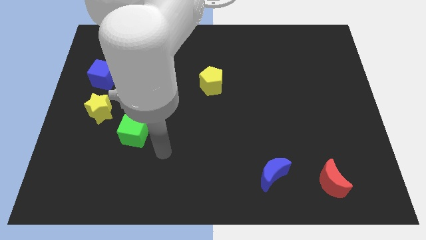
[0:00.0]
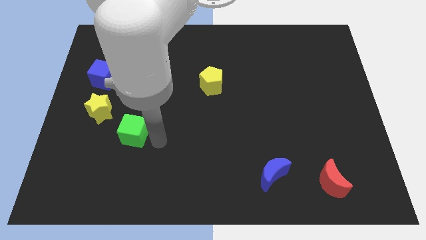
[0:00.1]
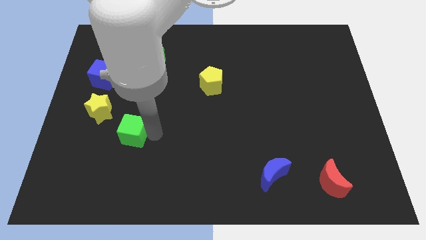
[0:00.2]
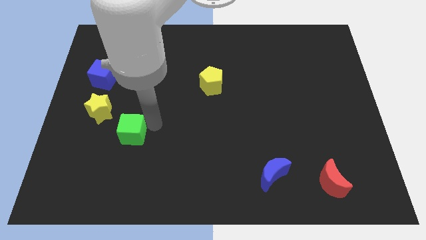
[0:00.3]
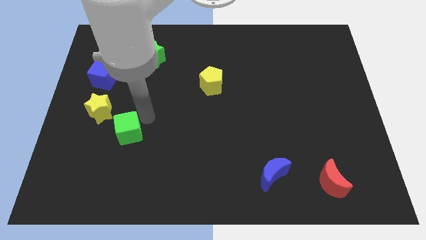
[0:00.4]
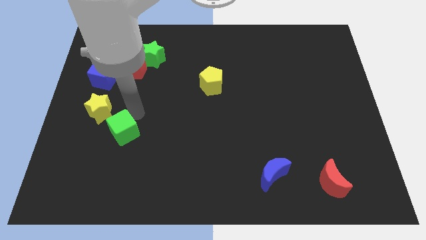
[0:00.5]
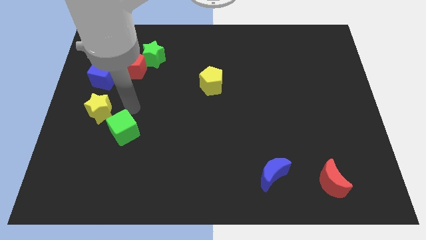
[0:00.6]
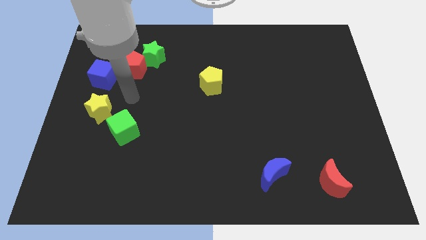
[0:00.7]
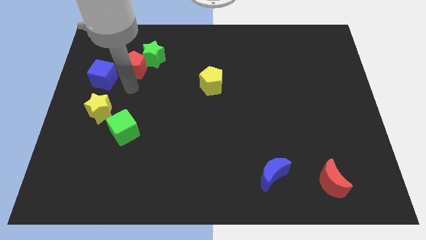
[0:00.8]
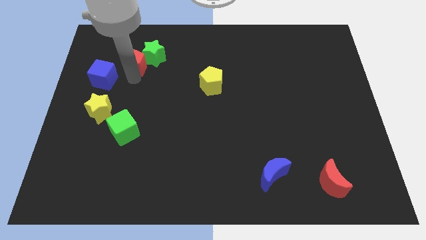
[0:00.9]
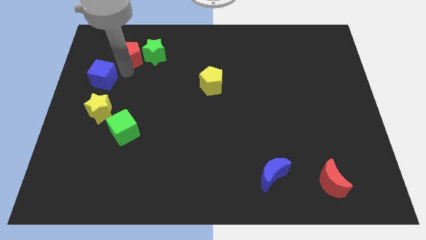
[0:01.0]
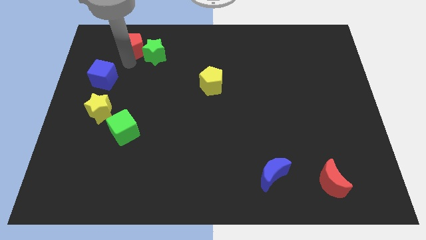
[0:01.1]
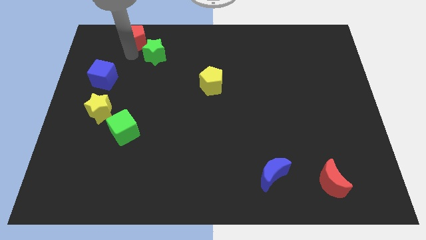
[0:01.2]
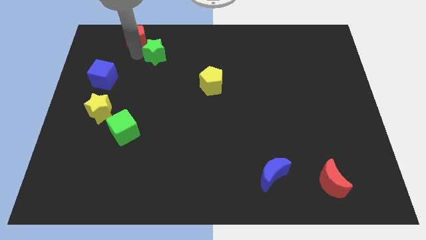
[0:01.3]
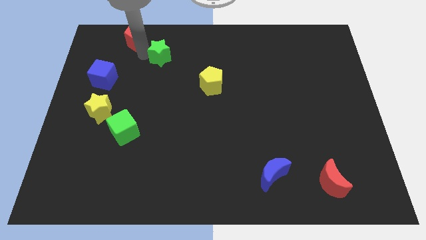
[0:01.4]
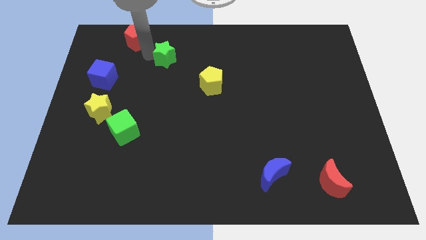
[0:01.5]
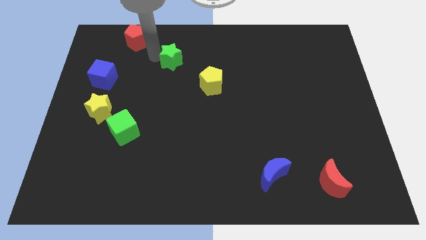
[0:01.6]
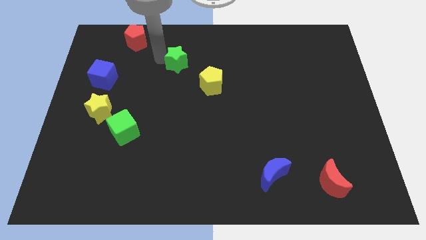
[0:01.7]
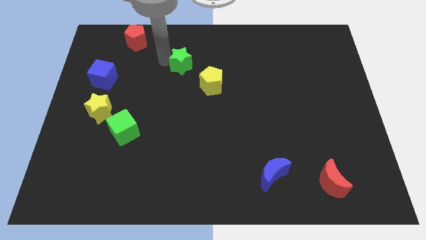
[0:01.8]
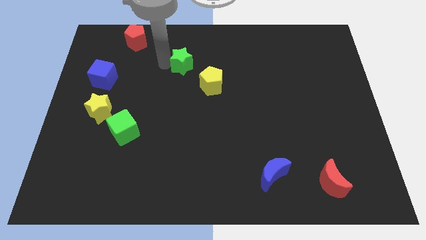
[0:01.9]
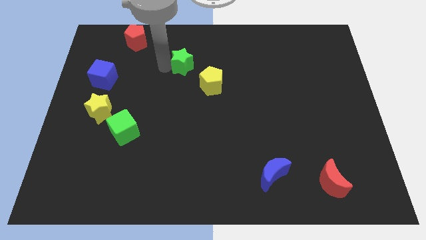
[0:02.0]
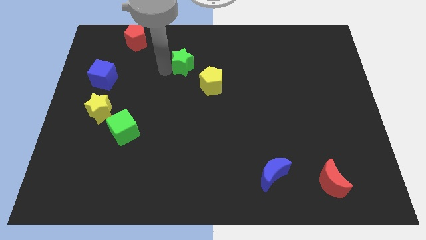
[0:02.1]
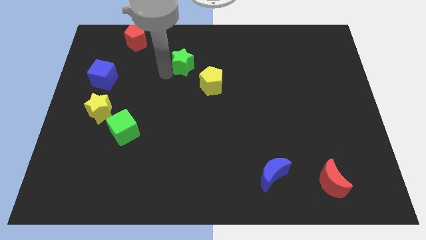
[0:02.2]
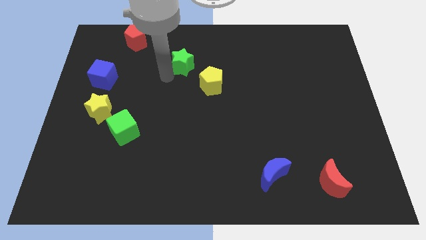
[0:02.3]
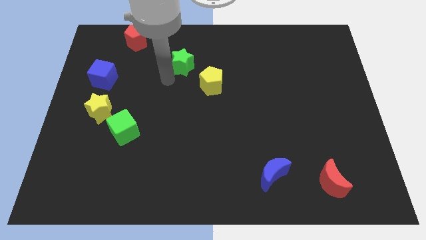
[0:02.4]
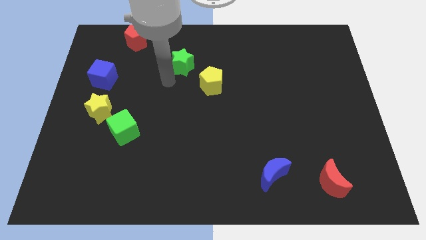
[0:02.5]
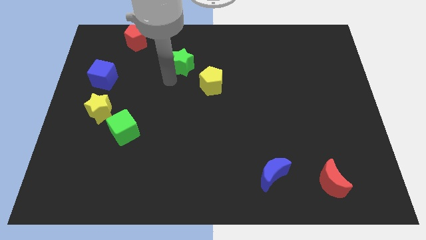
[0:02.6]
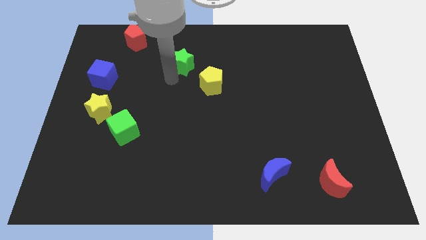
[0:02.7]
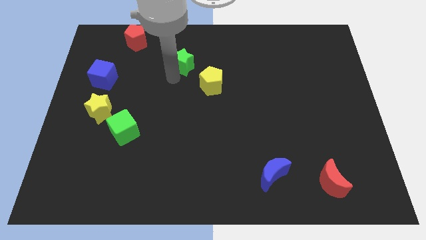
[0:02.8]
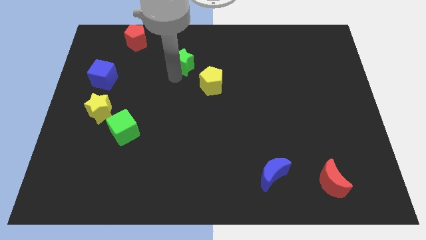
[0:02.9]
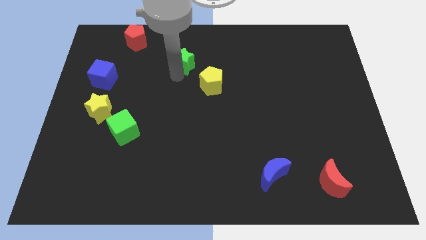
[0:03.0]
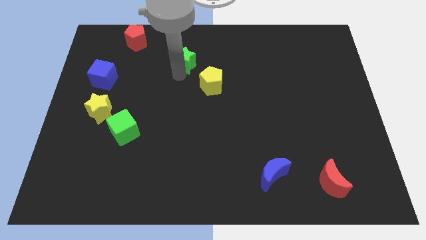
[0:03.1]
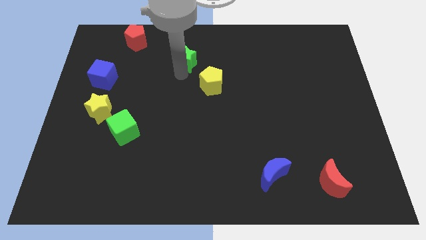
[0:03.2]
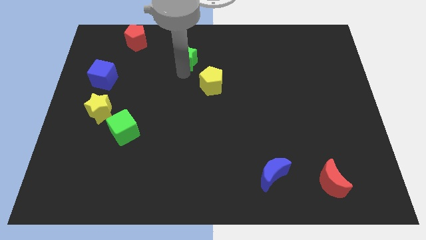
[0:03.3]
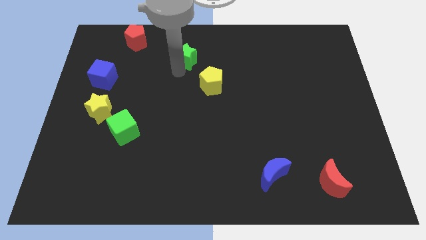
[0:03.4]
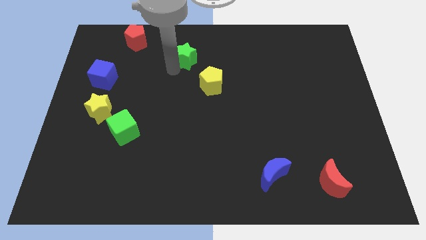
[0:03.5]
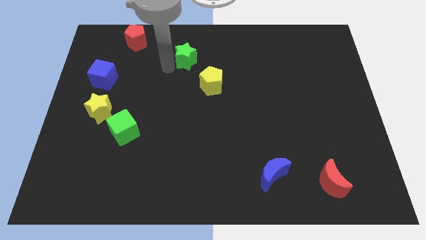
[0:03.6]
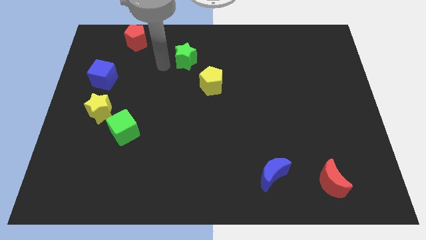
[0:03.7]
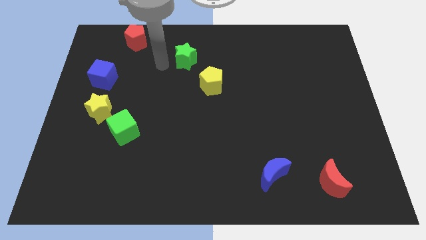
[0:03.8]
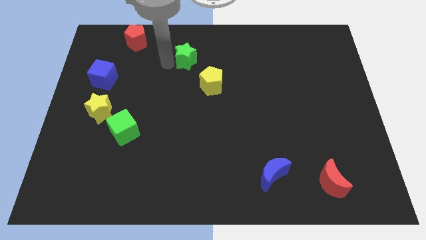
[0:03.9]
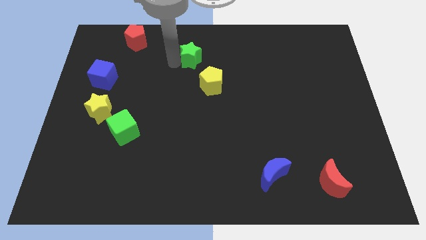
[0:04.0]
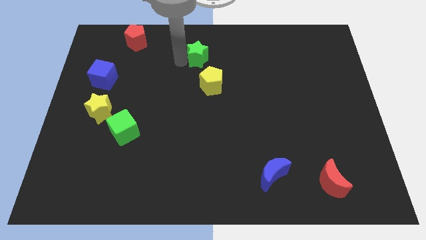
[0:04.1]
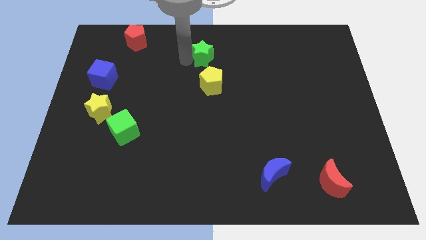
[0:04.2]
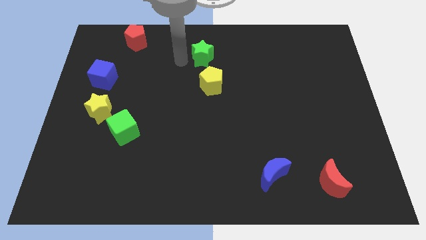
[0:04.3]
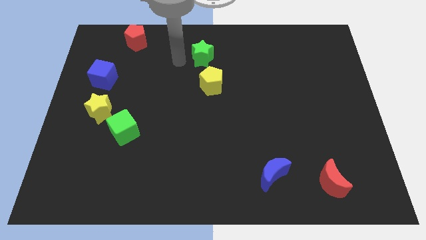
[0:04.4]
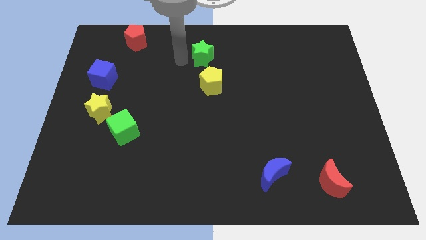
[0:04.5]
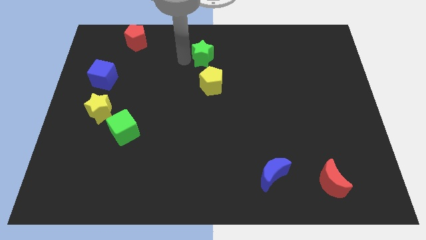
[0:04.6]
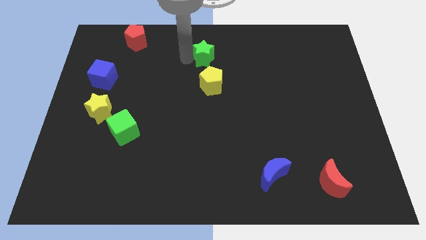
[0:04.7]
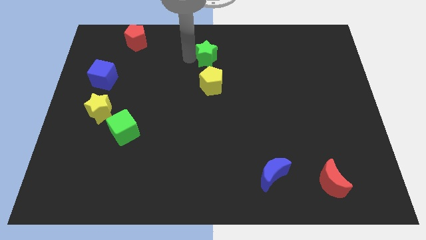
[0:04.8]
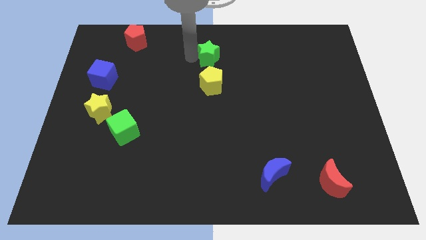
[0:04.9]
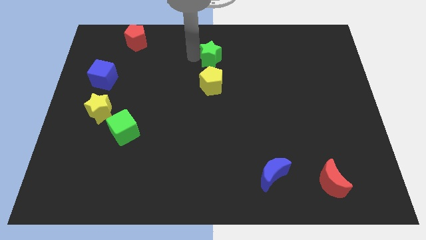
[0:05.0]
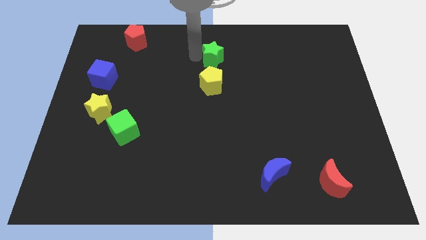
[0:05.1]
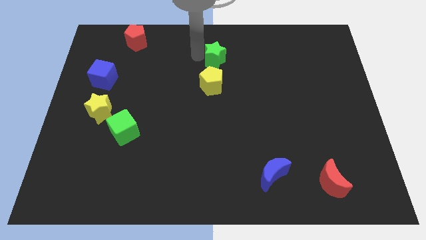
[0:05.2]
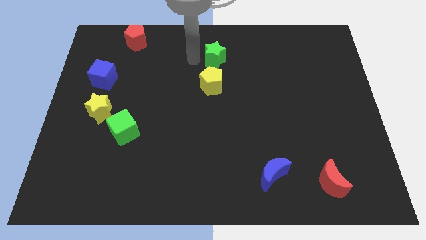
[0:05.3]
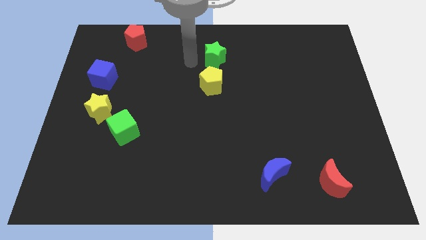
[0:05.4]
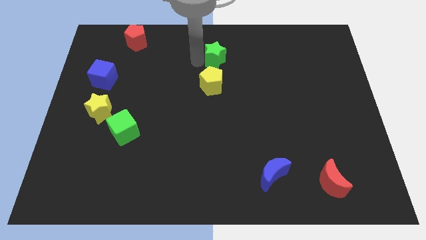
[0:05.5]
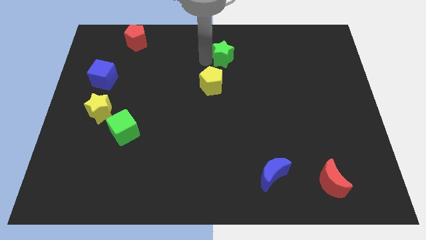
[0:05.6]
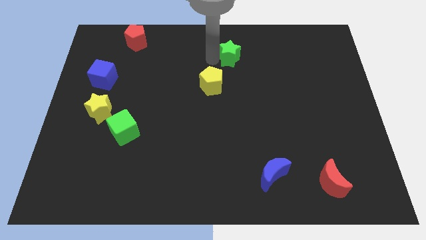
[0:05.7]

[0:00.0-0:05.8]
move the green star to the right

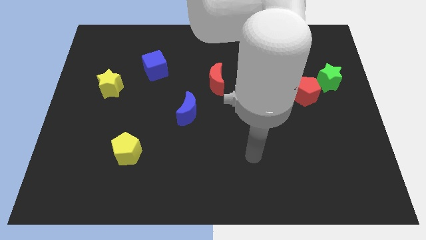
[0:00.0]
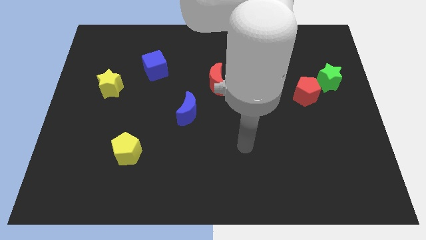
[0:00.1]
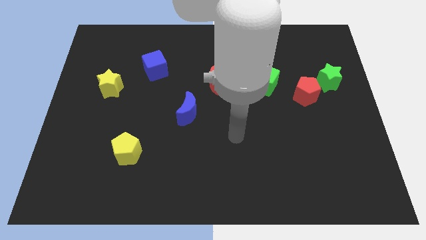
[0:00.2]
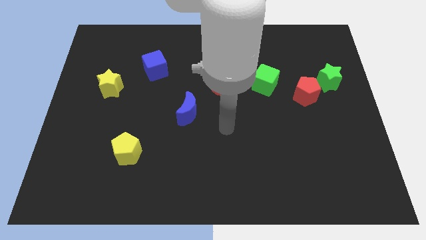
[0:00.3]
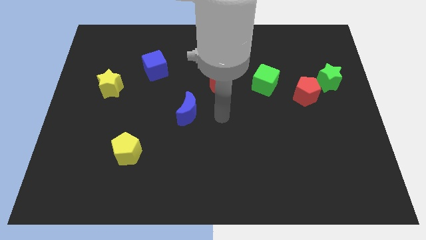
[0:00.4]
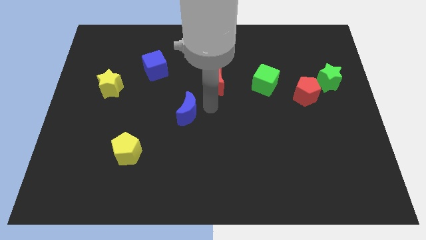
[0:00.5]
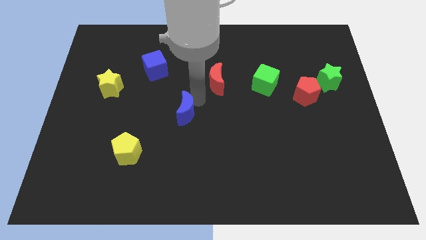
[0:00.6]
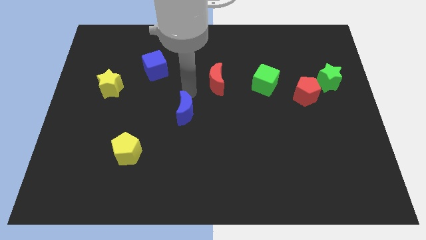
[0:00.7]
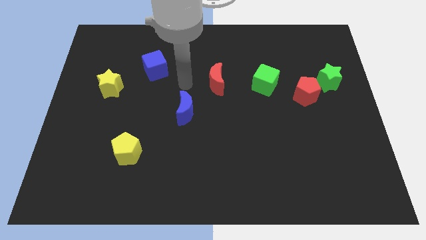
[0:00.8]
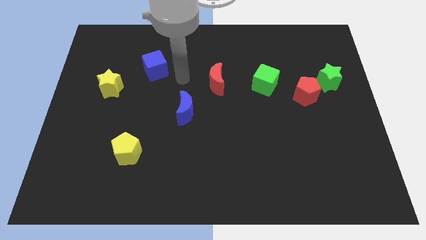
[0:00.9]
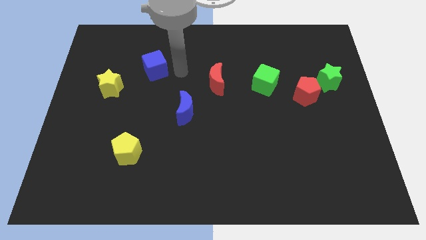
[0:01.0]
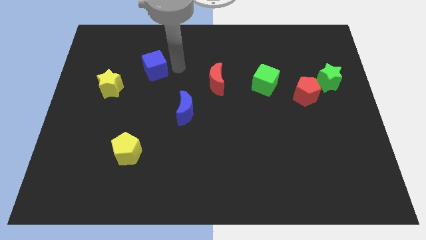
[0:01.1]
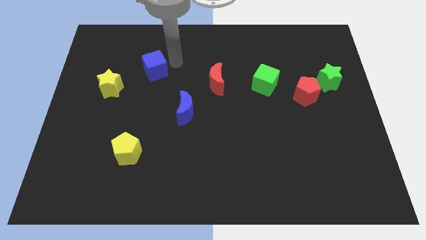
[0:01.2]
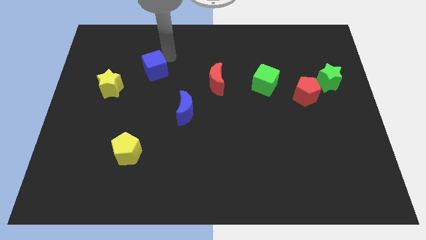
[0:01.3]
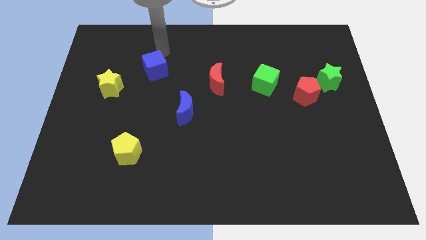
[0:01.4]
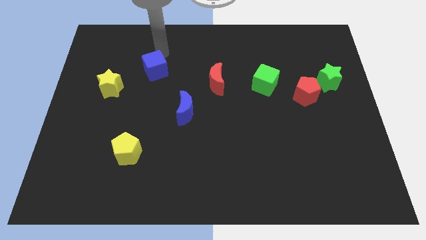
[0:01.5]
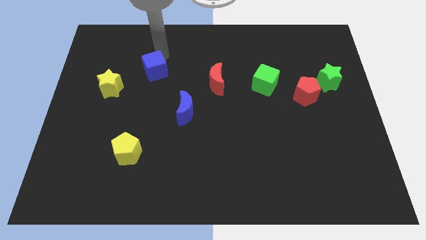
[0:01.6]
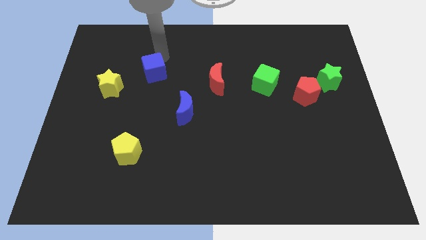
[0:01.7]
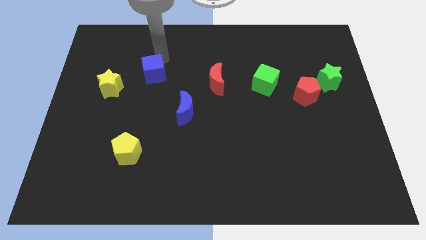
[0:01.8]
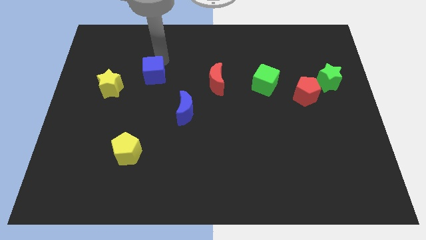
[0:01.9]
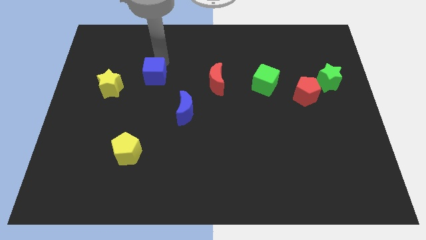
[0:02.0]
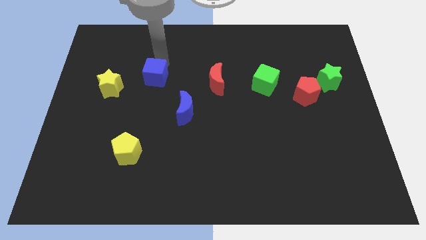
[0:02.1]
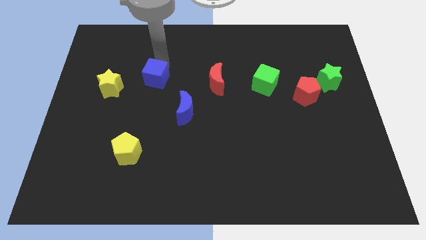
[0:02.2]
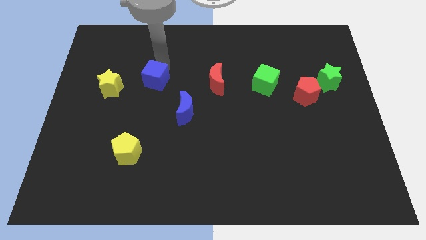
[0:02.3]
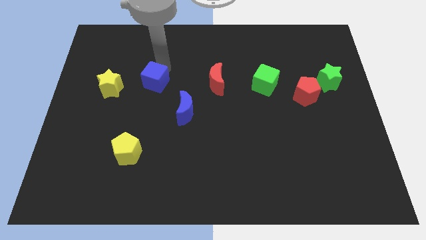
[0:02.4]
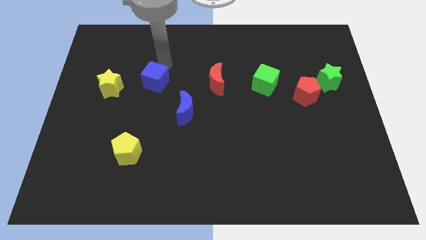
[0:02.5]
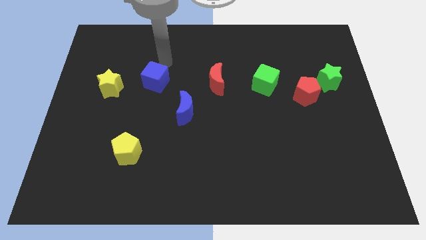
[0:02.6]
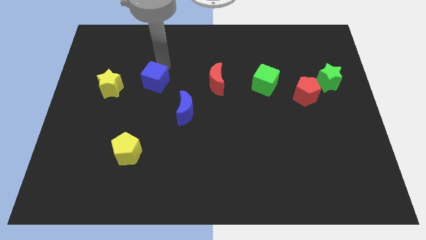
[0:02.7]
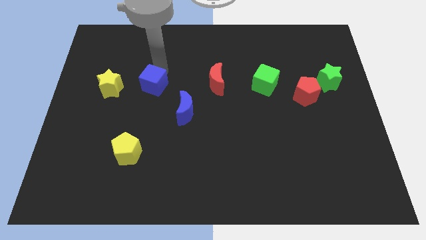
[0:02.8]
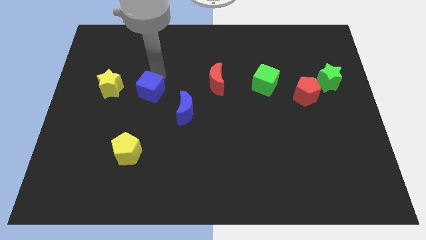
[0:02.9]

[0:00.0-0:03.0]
push the blue cube somewhat down
